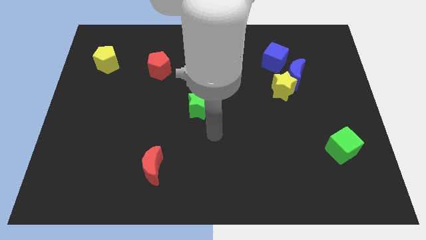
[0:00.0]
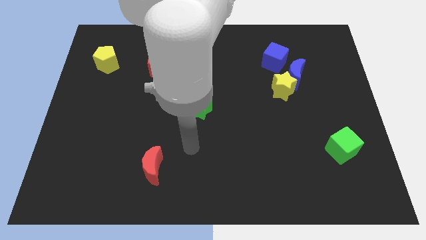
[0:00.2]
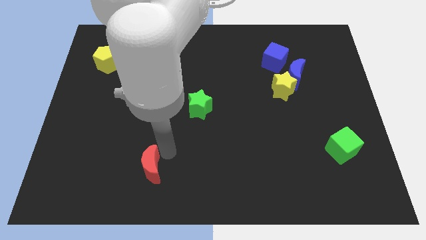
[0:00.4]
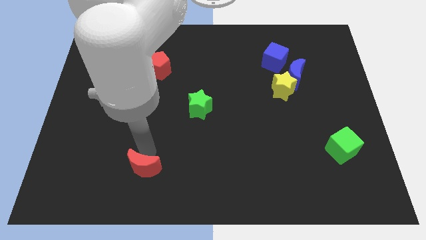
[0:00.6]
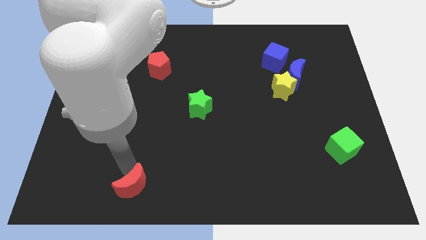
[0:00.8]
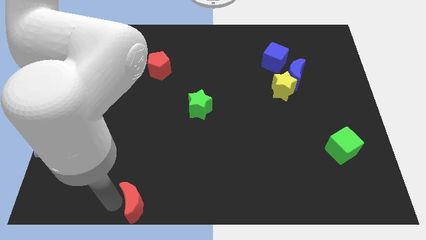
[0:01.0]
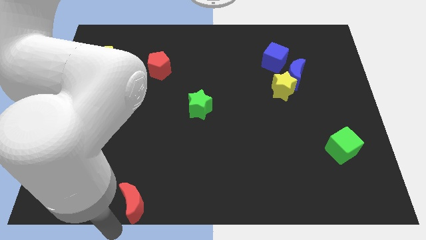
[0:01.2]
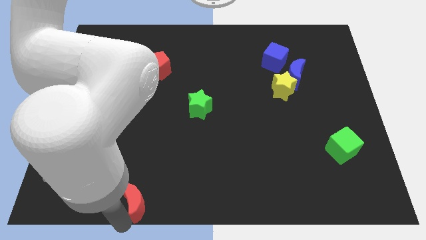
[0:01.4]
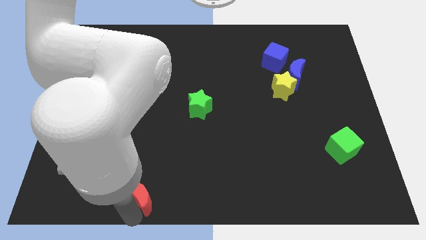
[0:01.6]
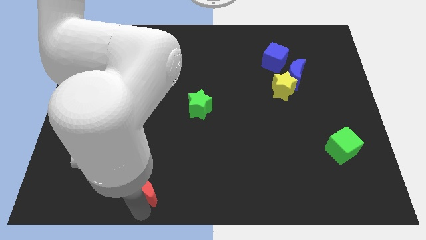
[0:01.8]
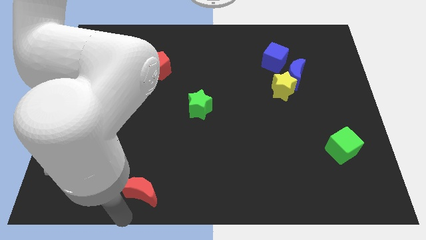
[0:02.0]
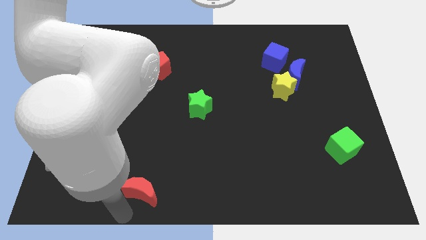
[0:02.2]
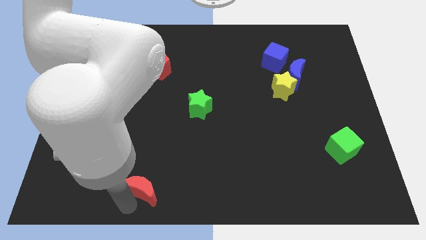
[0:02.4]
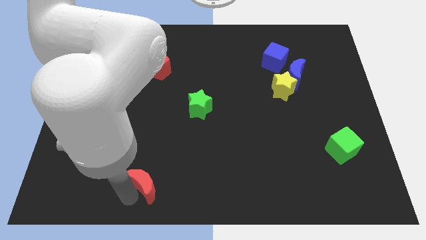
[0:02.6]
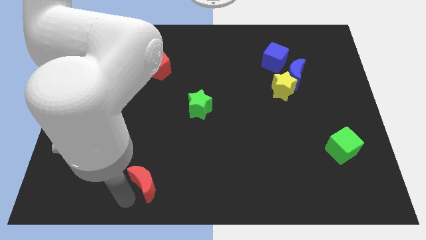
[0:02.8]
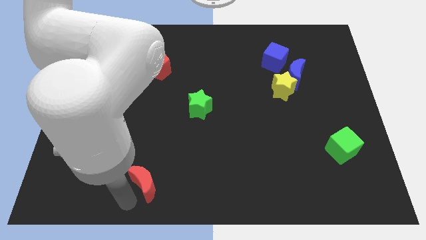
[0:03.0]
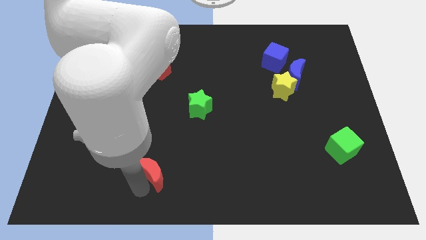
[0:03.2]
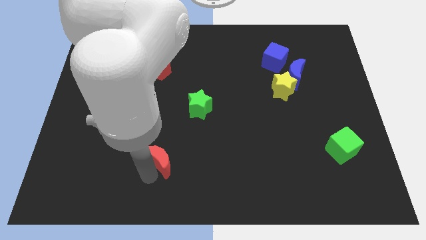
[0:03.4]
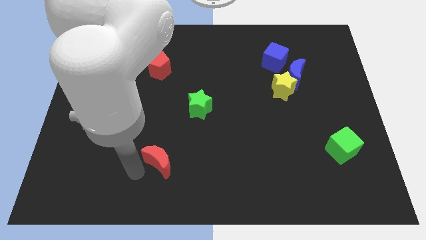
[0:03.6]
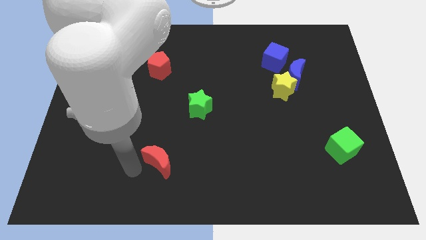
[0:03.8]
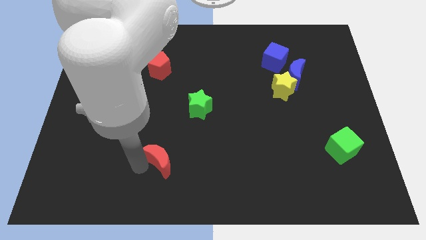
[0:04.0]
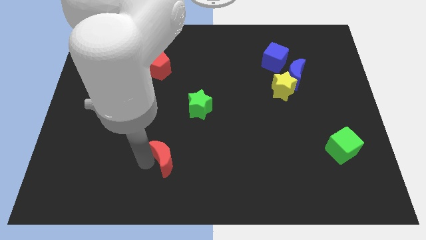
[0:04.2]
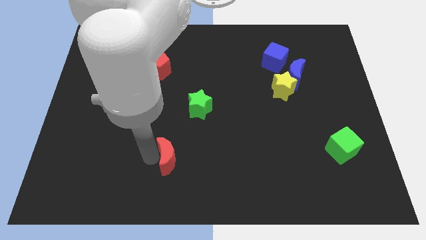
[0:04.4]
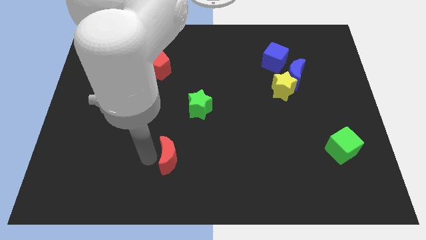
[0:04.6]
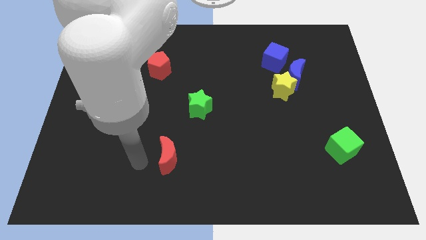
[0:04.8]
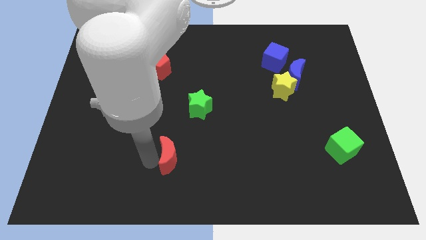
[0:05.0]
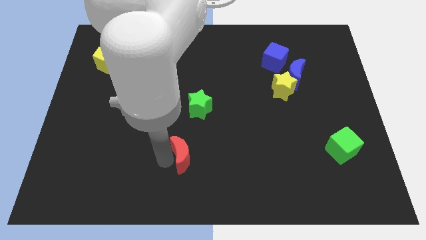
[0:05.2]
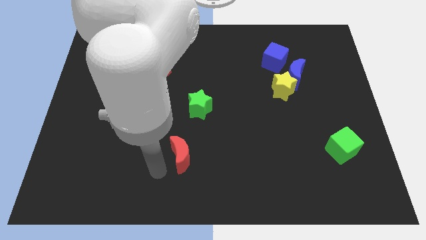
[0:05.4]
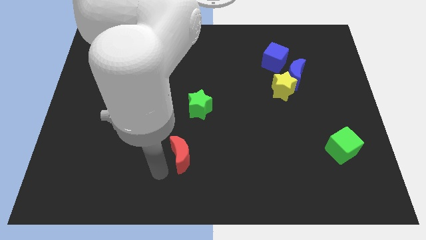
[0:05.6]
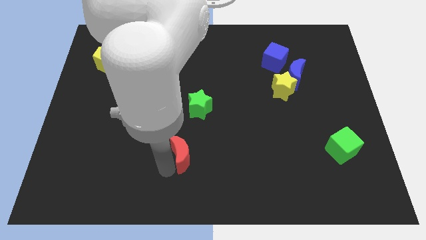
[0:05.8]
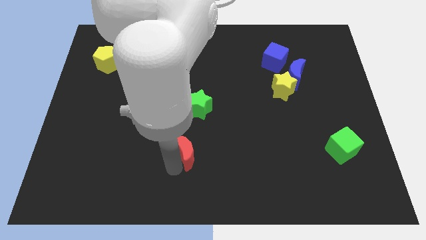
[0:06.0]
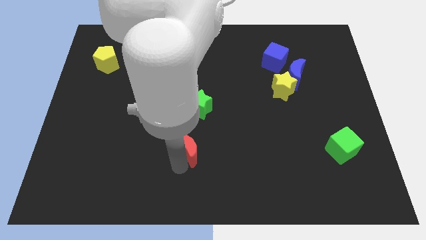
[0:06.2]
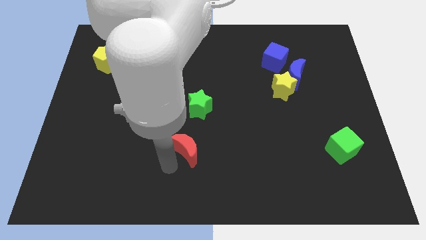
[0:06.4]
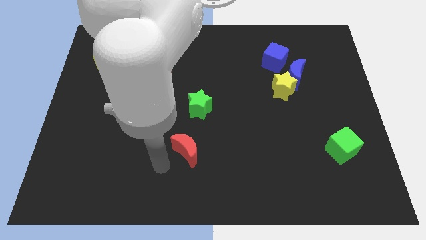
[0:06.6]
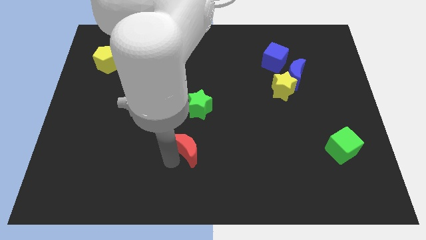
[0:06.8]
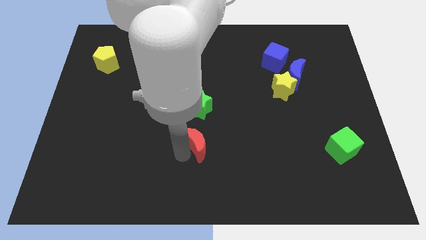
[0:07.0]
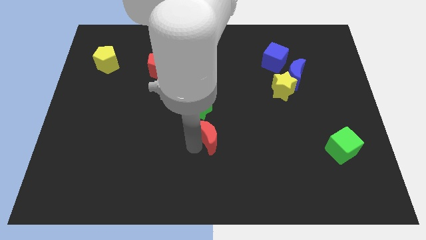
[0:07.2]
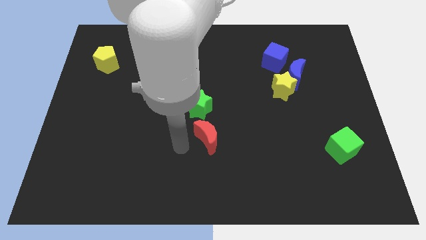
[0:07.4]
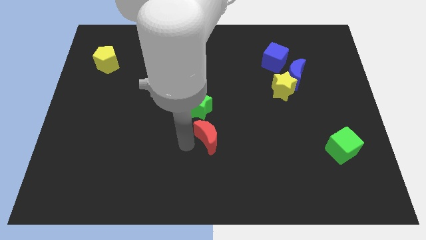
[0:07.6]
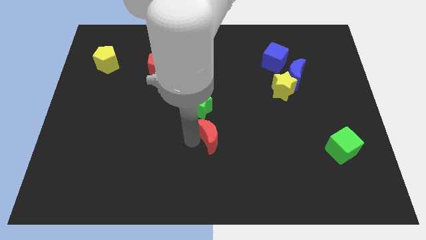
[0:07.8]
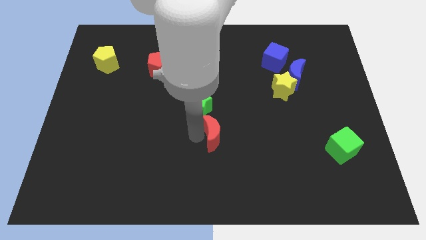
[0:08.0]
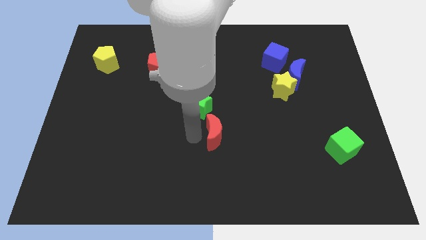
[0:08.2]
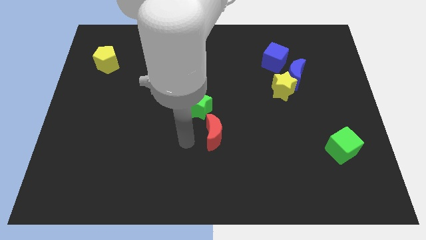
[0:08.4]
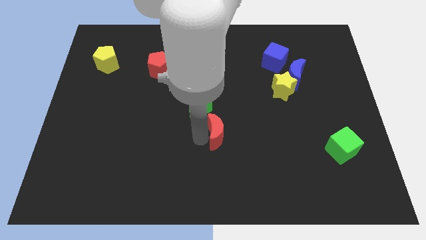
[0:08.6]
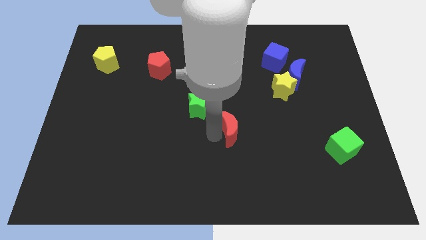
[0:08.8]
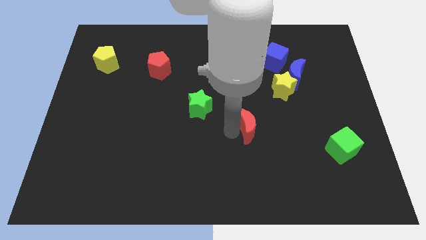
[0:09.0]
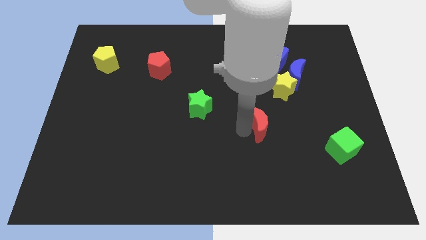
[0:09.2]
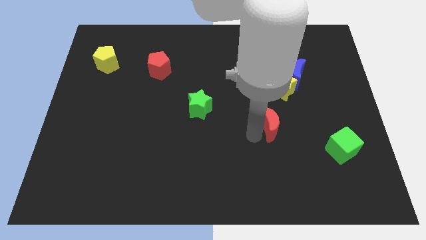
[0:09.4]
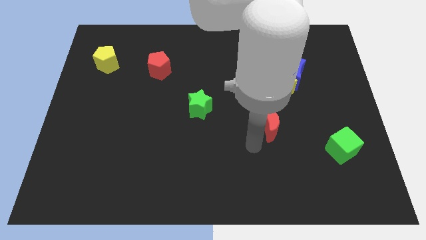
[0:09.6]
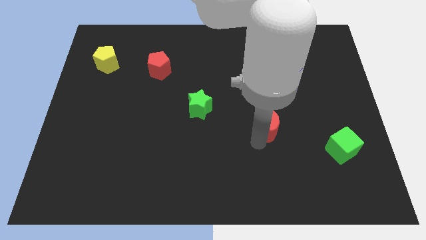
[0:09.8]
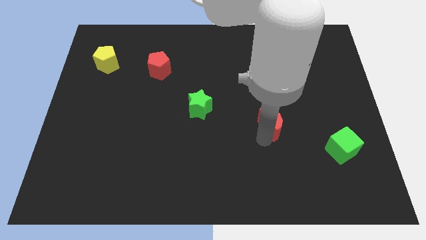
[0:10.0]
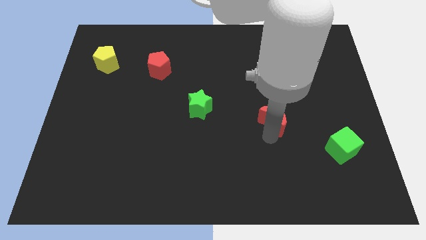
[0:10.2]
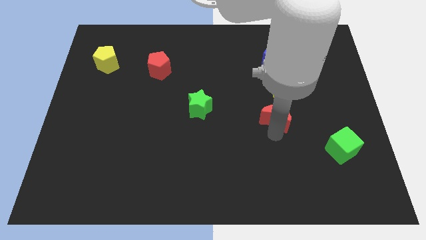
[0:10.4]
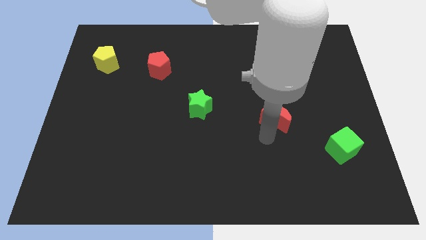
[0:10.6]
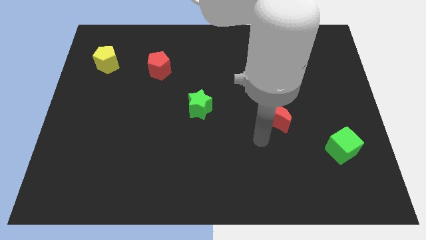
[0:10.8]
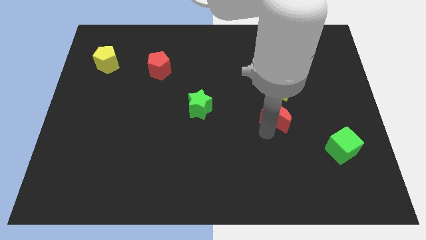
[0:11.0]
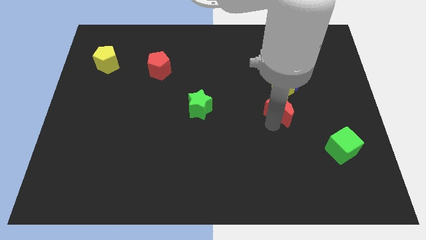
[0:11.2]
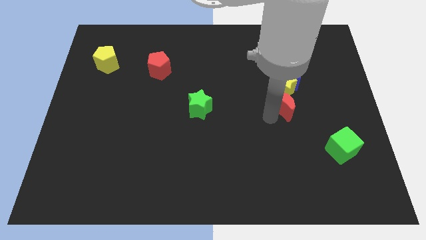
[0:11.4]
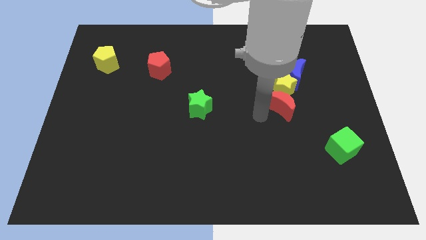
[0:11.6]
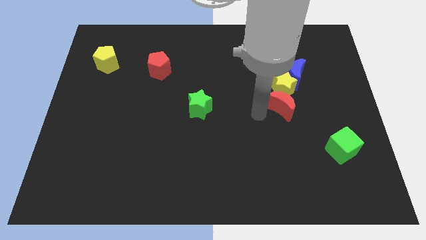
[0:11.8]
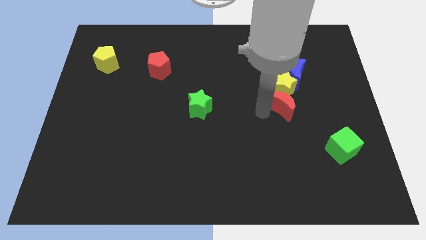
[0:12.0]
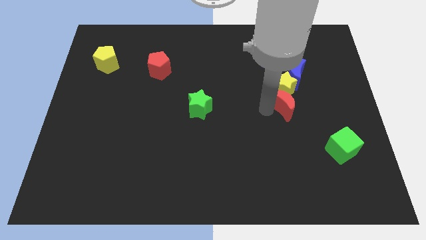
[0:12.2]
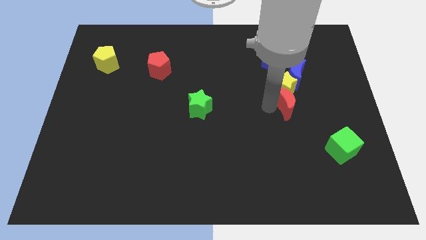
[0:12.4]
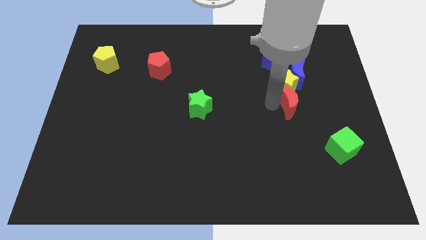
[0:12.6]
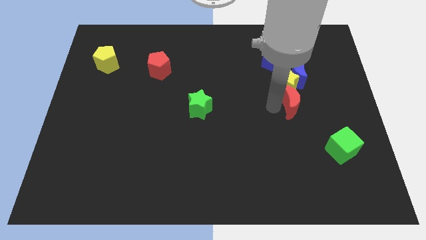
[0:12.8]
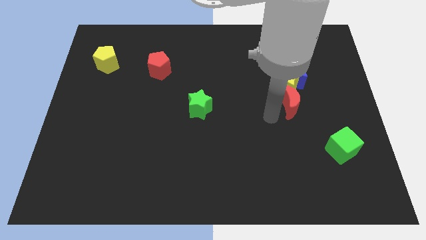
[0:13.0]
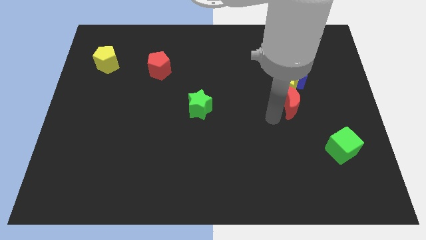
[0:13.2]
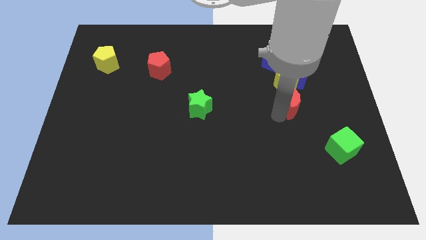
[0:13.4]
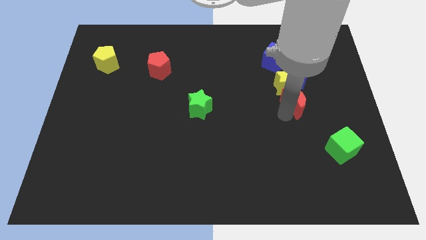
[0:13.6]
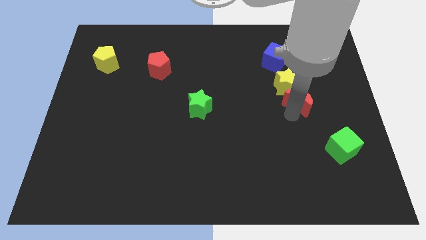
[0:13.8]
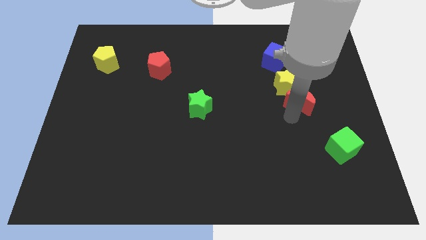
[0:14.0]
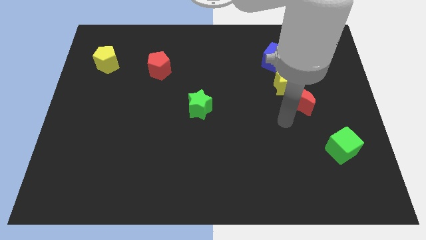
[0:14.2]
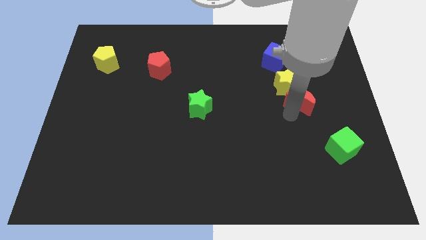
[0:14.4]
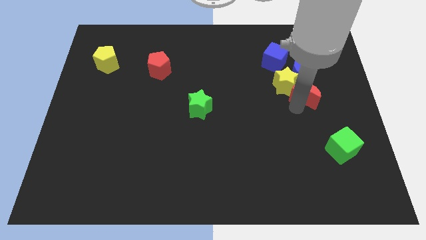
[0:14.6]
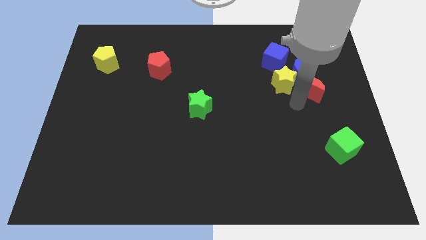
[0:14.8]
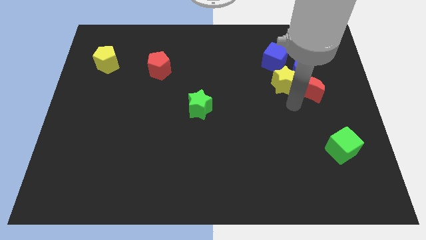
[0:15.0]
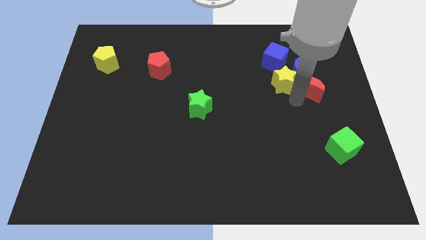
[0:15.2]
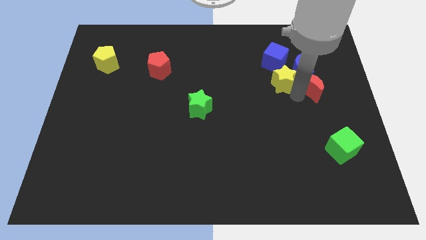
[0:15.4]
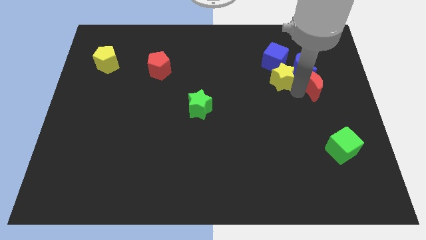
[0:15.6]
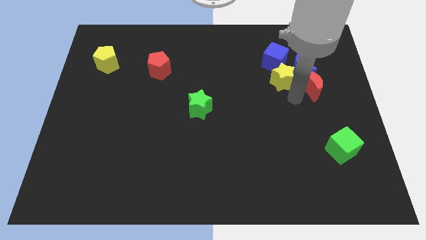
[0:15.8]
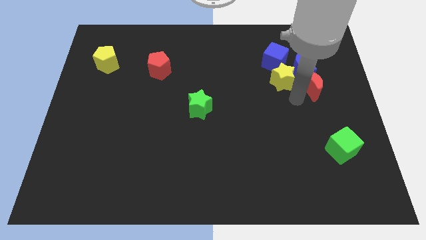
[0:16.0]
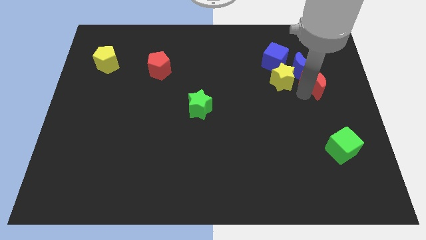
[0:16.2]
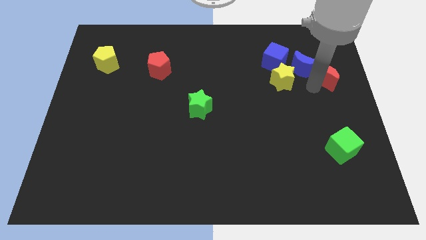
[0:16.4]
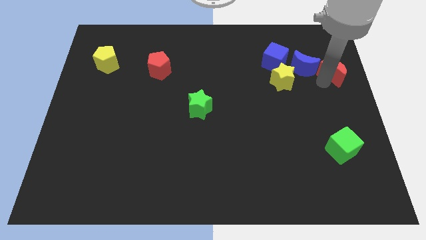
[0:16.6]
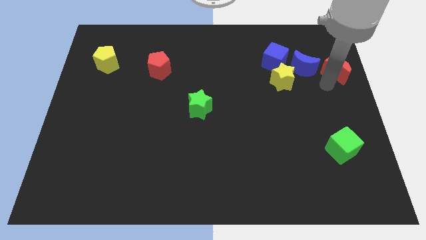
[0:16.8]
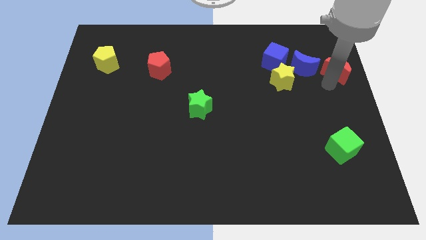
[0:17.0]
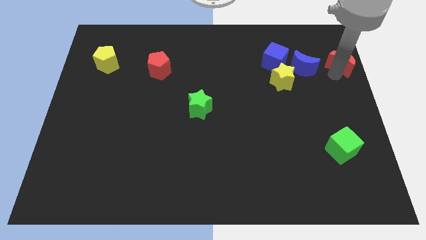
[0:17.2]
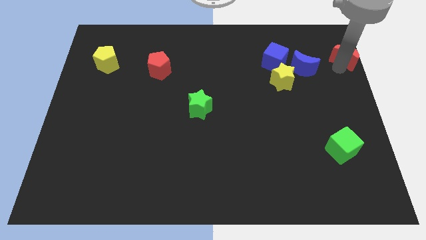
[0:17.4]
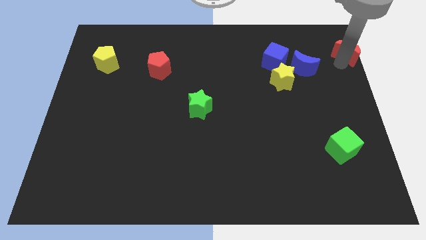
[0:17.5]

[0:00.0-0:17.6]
push the red moon to the top right corner
